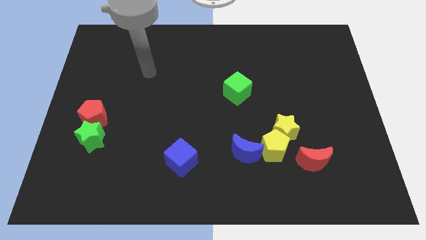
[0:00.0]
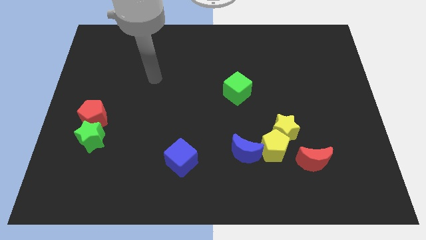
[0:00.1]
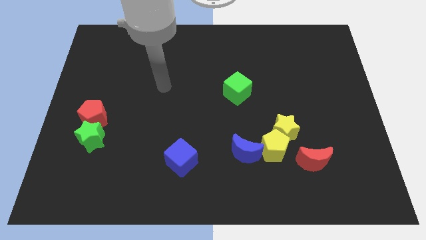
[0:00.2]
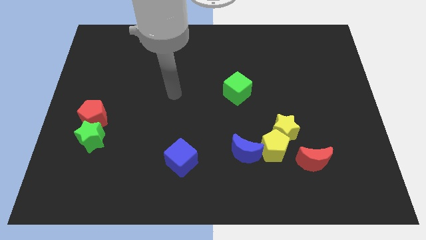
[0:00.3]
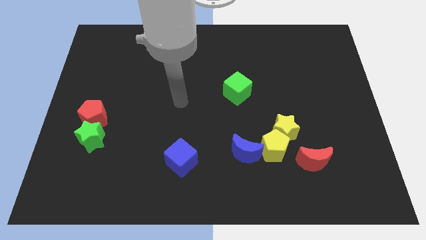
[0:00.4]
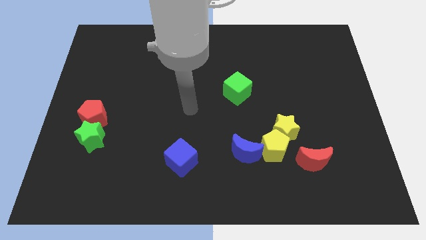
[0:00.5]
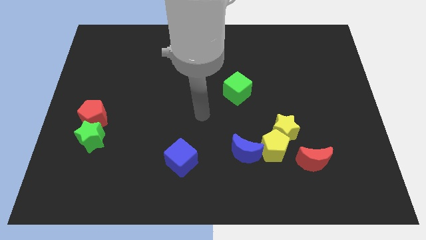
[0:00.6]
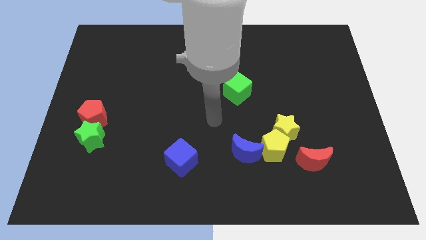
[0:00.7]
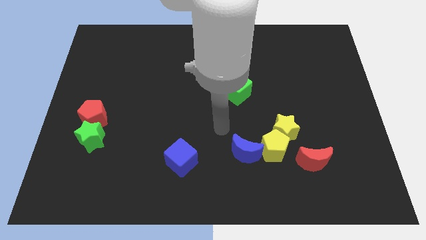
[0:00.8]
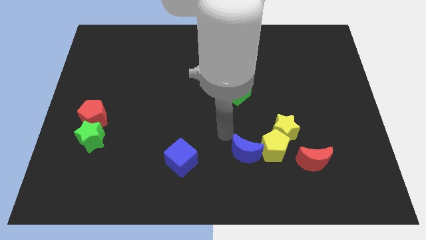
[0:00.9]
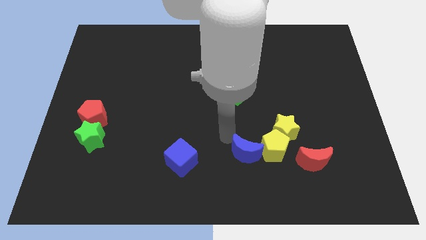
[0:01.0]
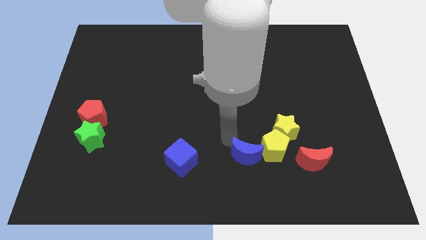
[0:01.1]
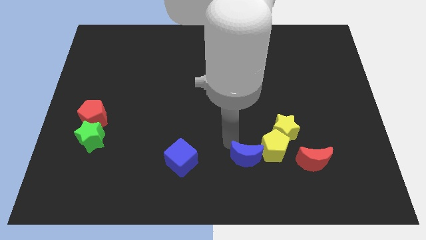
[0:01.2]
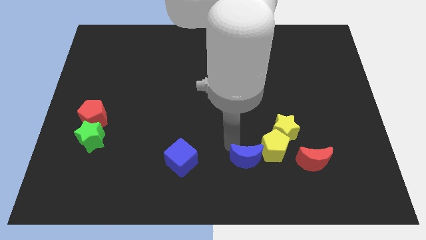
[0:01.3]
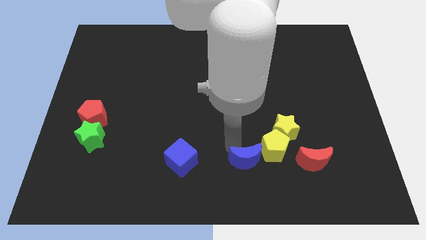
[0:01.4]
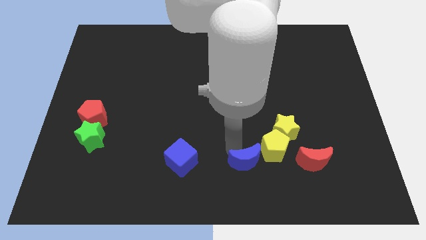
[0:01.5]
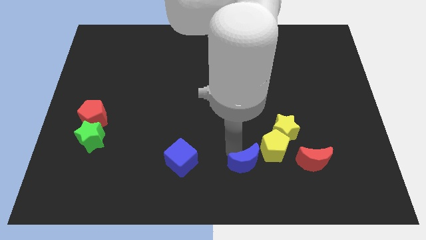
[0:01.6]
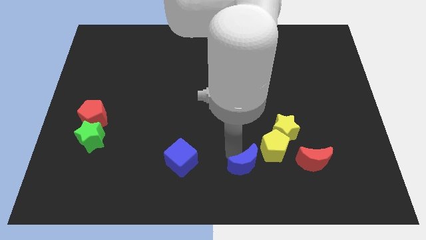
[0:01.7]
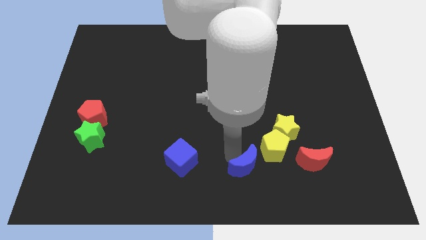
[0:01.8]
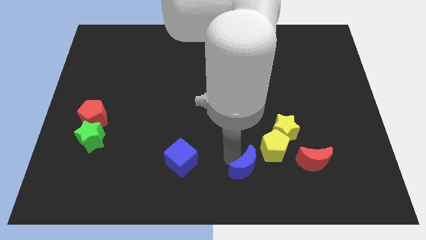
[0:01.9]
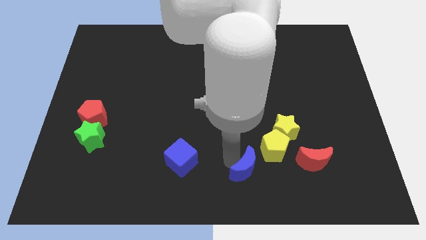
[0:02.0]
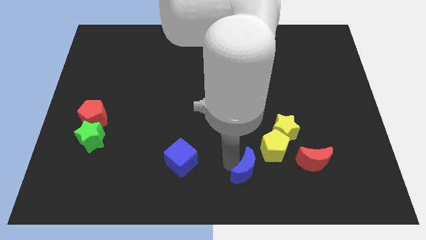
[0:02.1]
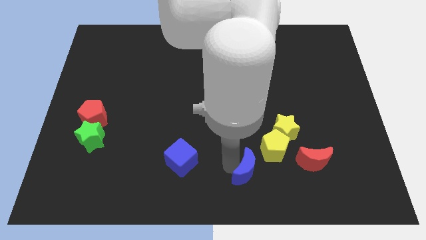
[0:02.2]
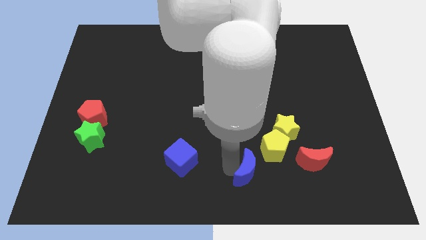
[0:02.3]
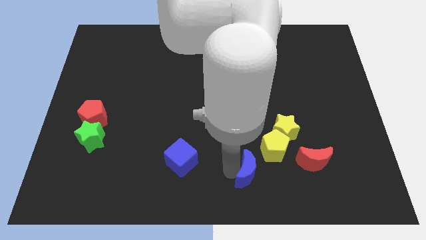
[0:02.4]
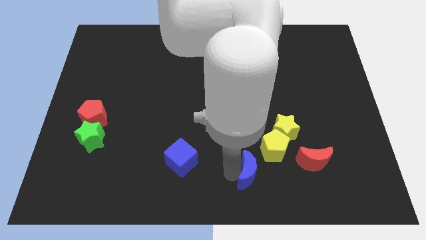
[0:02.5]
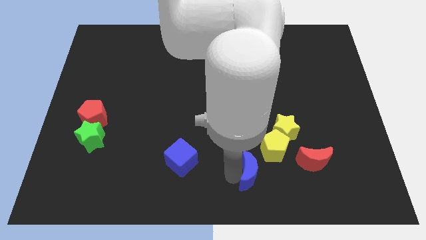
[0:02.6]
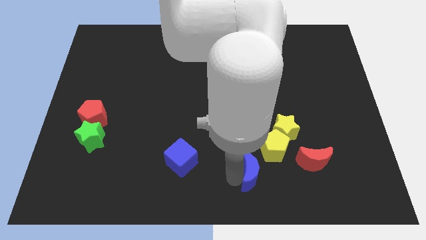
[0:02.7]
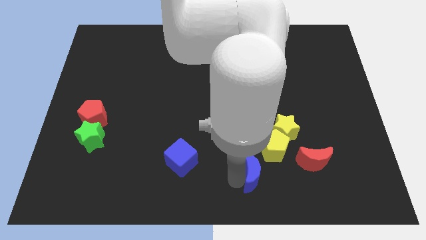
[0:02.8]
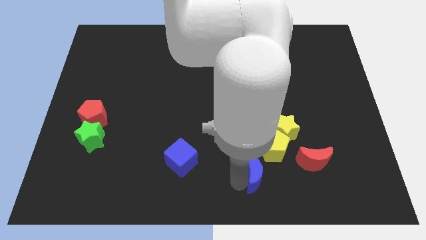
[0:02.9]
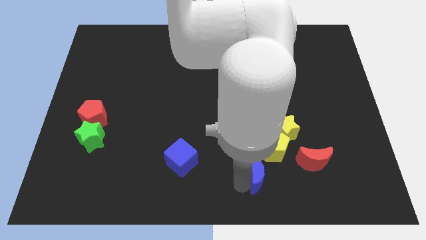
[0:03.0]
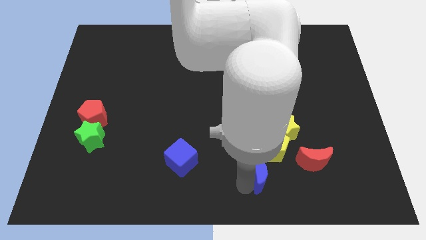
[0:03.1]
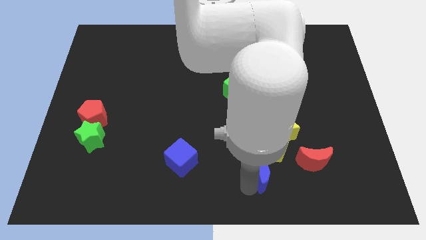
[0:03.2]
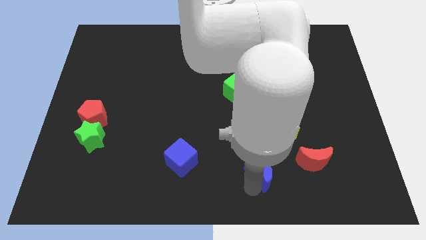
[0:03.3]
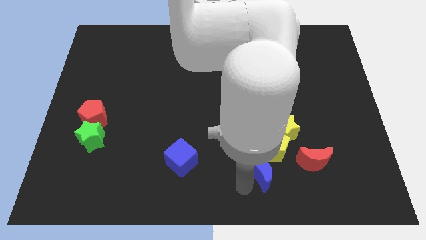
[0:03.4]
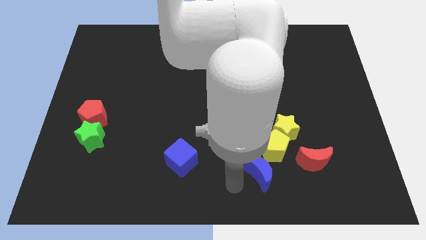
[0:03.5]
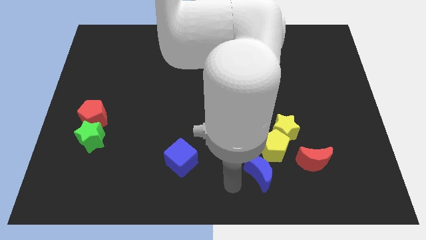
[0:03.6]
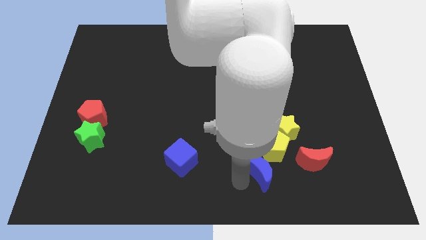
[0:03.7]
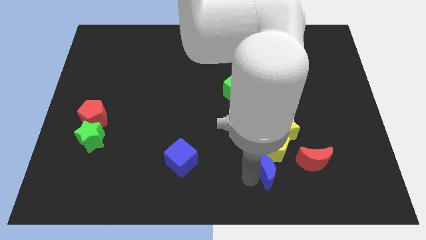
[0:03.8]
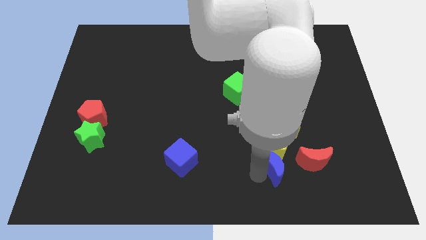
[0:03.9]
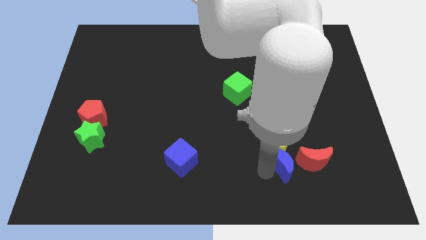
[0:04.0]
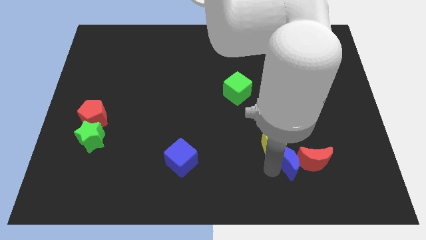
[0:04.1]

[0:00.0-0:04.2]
push the blue moon close to the red moon

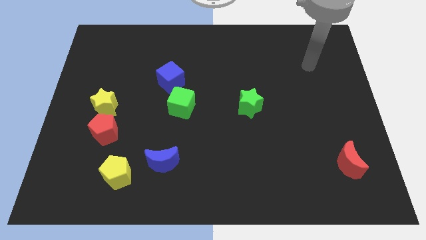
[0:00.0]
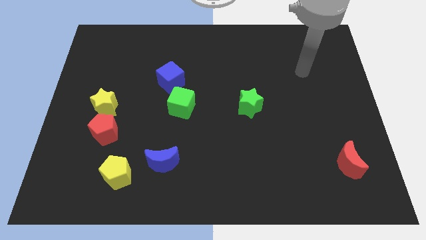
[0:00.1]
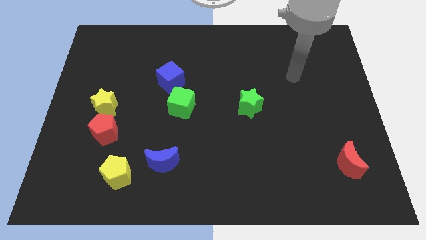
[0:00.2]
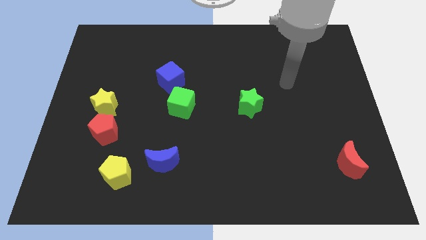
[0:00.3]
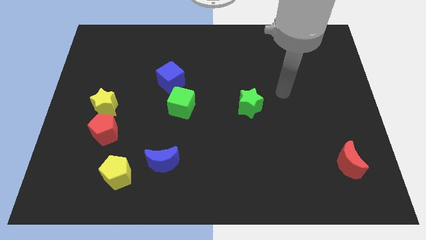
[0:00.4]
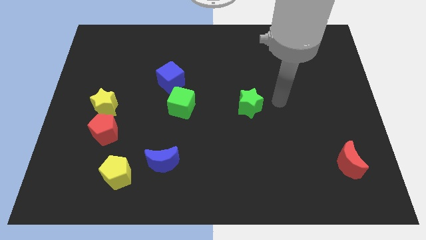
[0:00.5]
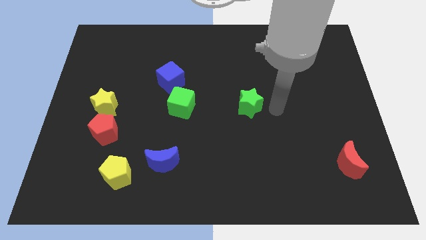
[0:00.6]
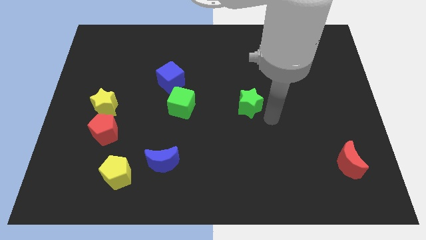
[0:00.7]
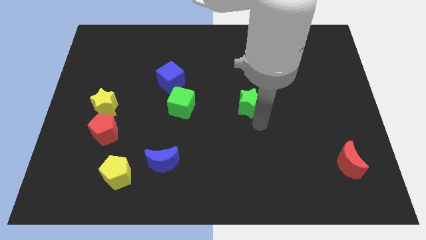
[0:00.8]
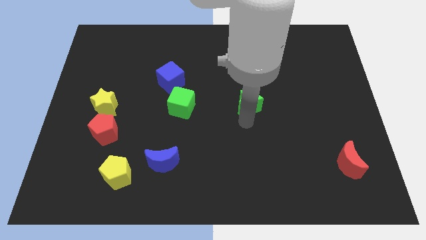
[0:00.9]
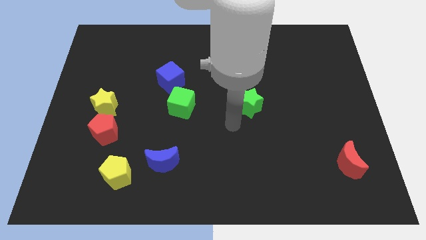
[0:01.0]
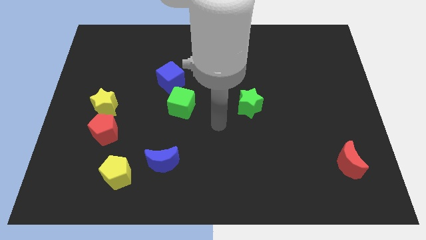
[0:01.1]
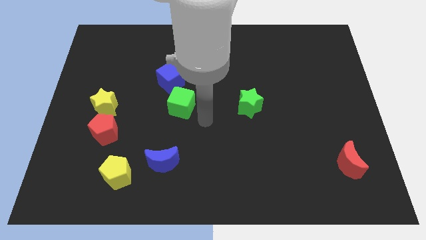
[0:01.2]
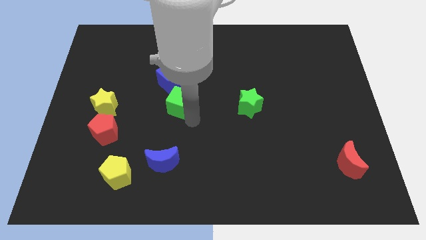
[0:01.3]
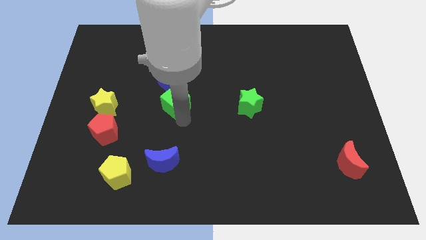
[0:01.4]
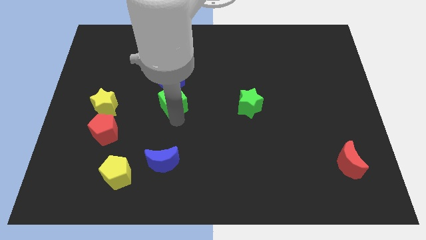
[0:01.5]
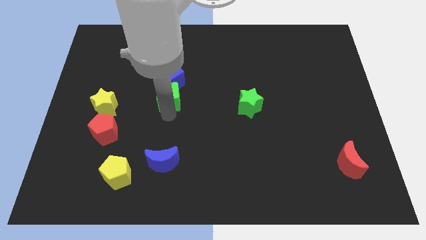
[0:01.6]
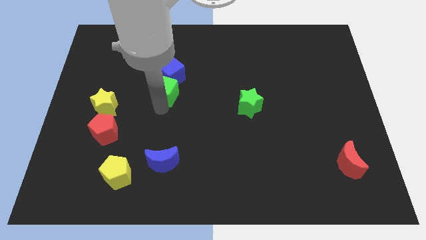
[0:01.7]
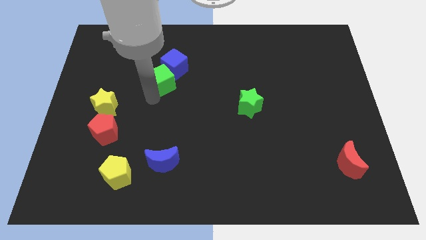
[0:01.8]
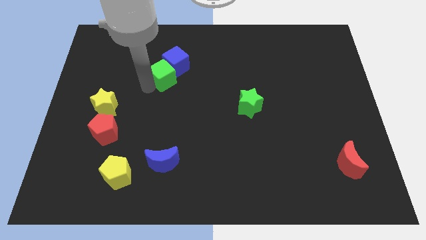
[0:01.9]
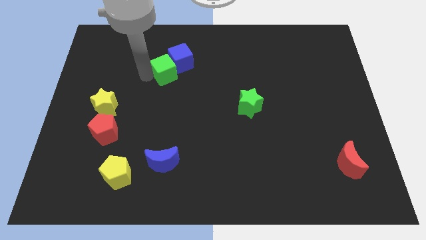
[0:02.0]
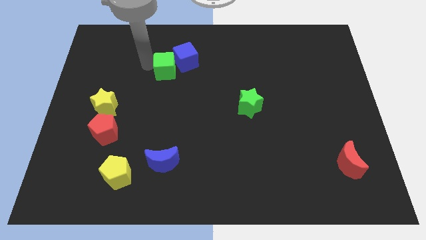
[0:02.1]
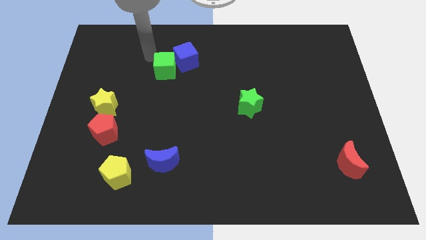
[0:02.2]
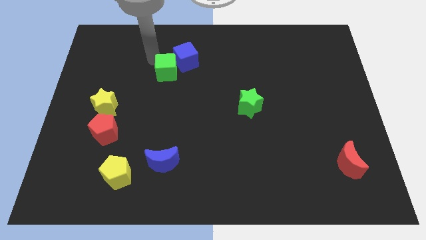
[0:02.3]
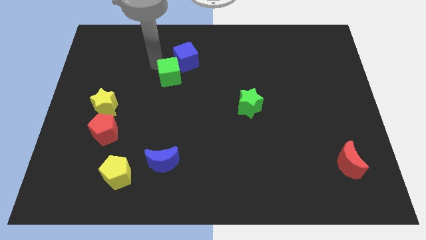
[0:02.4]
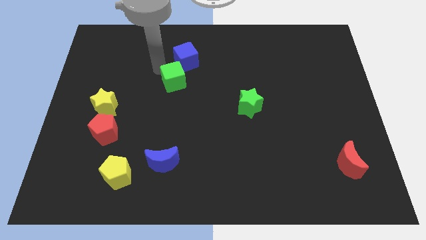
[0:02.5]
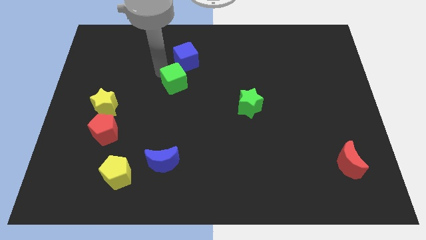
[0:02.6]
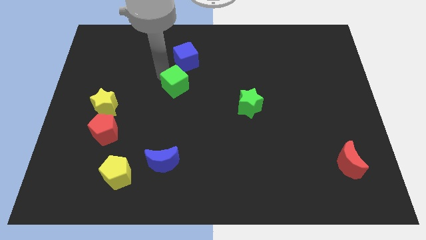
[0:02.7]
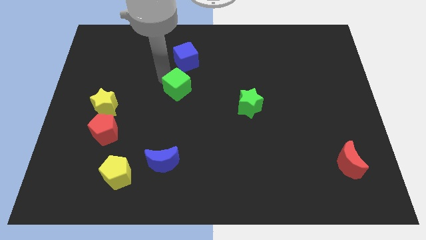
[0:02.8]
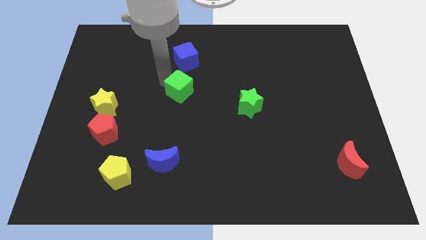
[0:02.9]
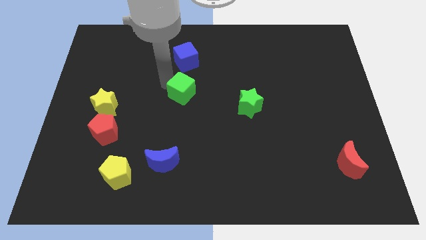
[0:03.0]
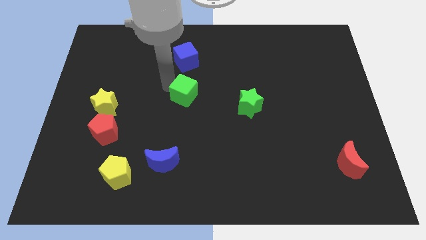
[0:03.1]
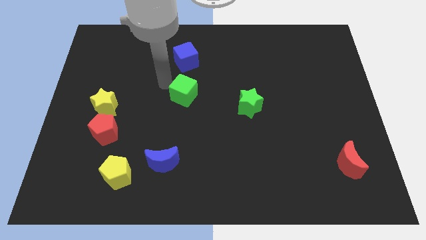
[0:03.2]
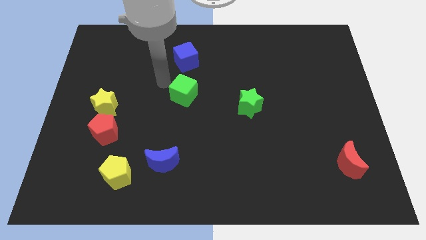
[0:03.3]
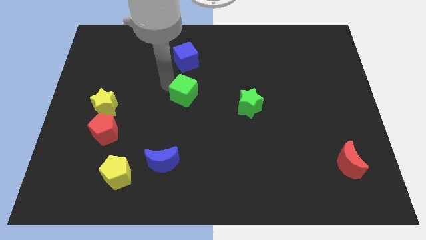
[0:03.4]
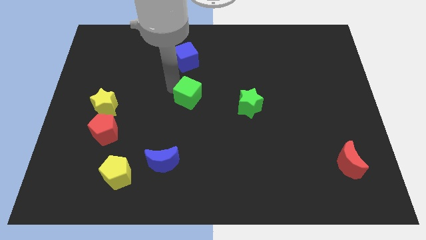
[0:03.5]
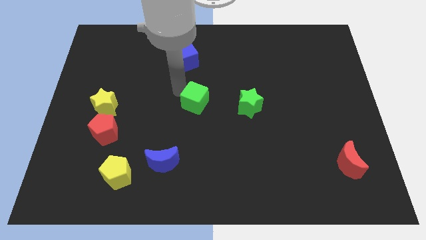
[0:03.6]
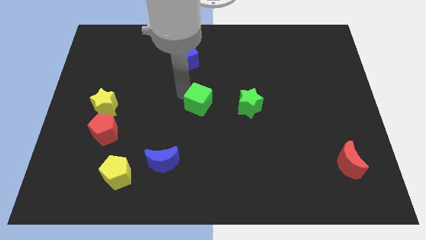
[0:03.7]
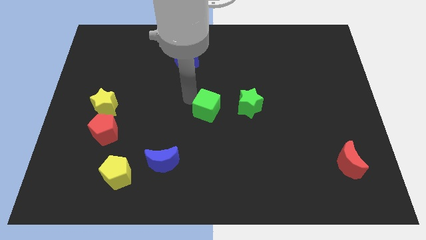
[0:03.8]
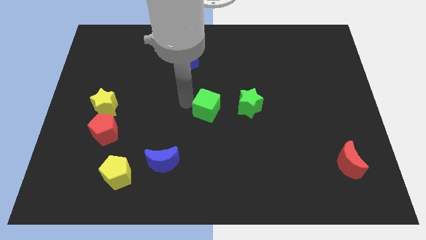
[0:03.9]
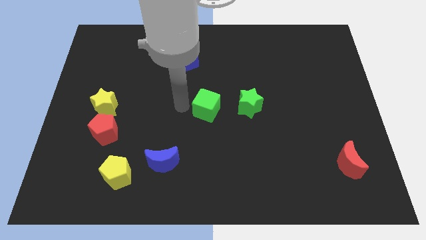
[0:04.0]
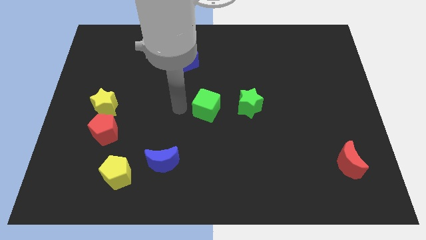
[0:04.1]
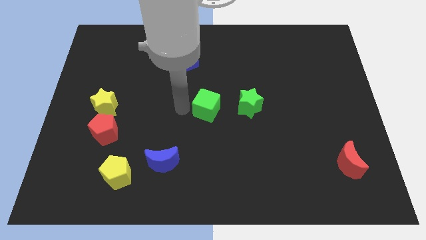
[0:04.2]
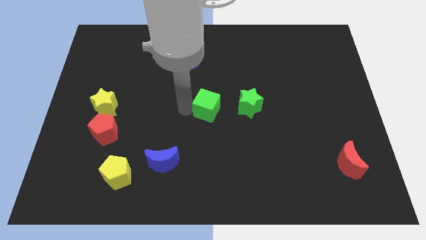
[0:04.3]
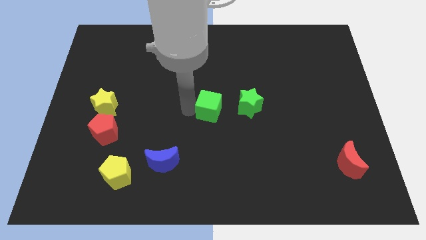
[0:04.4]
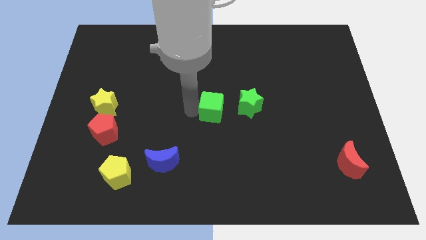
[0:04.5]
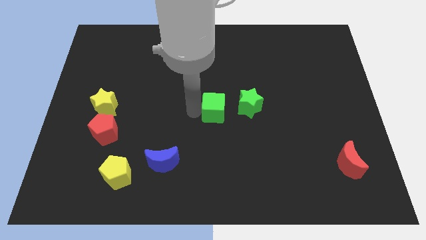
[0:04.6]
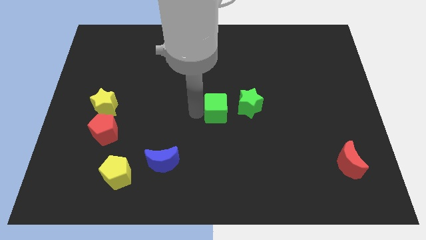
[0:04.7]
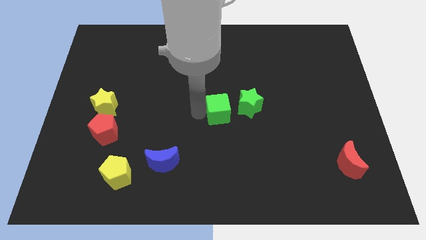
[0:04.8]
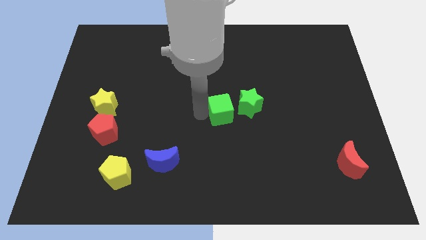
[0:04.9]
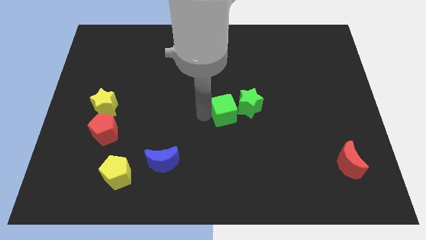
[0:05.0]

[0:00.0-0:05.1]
slide the green cube towards the green star
